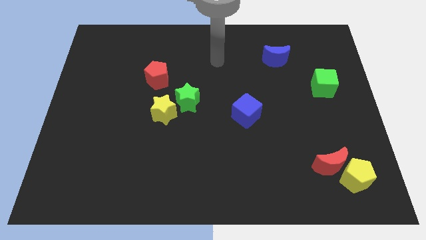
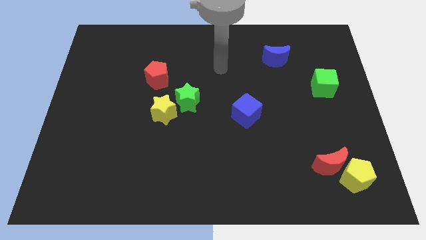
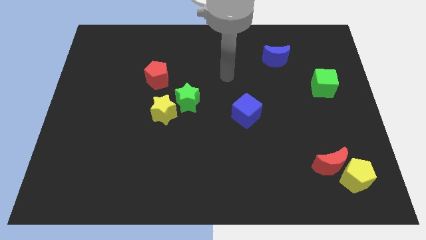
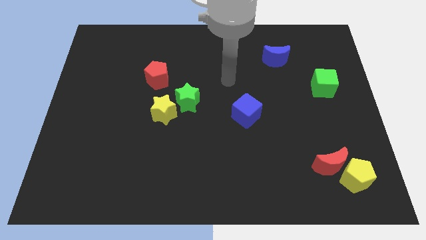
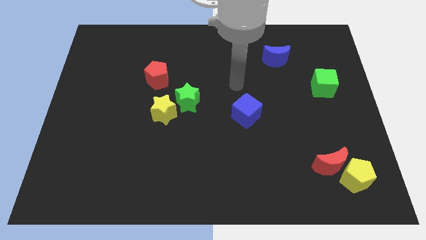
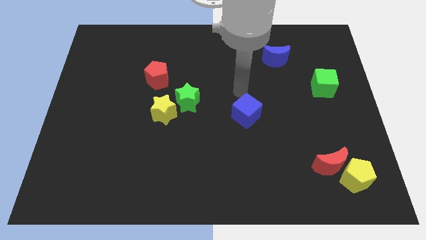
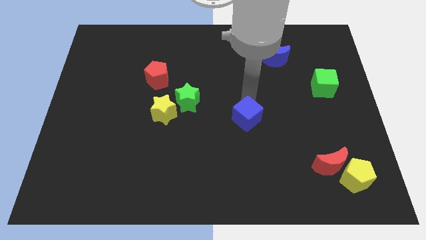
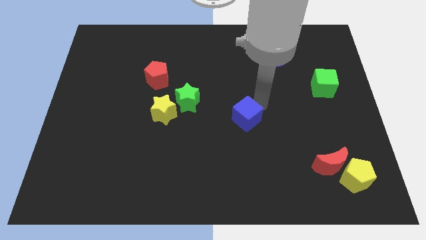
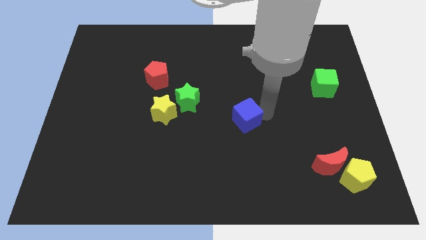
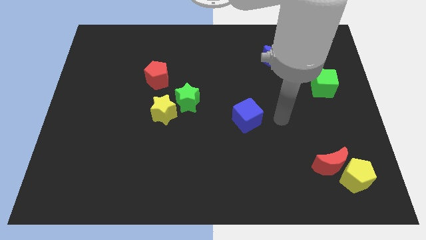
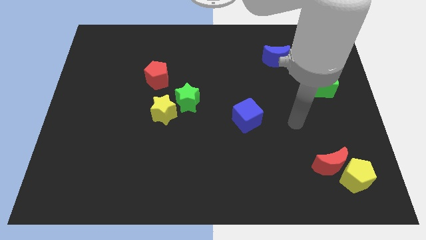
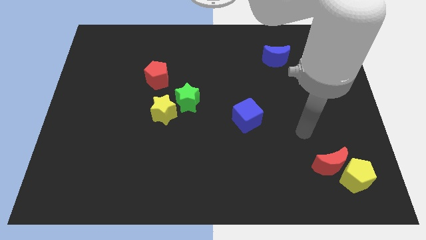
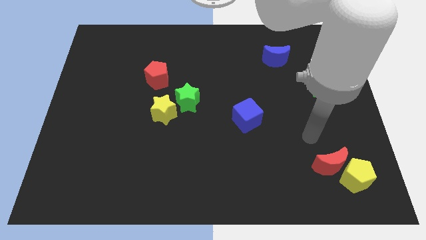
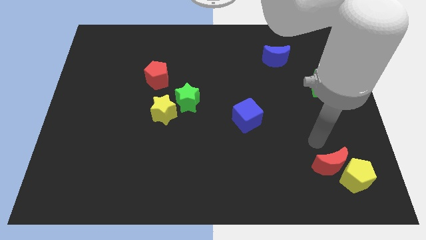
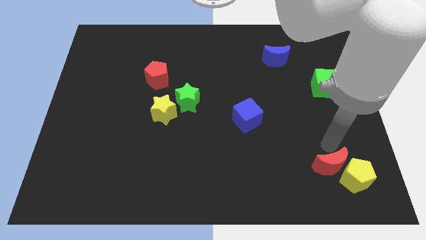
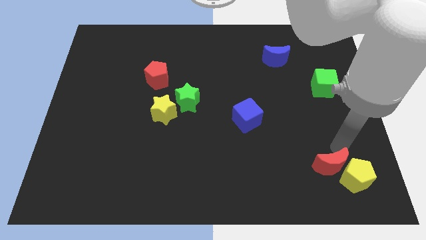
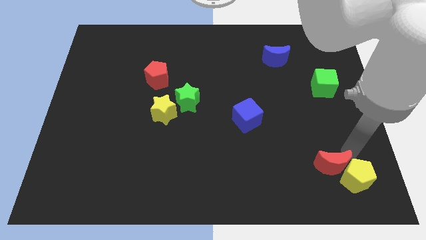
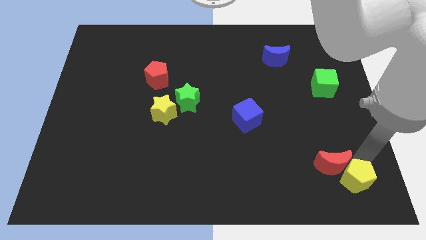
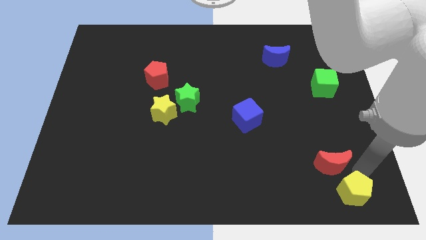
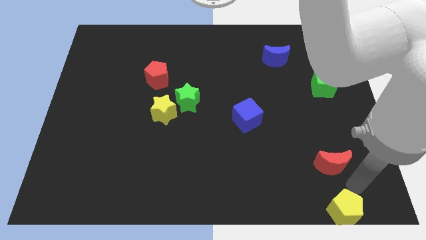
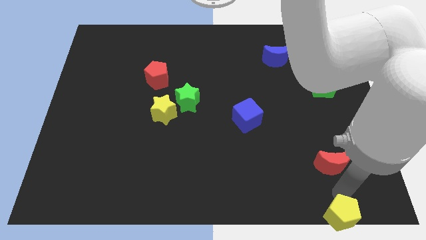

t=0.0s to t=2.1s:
move the red moon away from the yellow pentagon

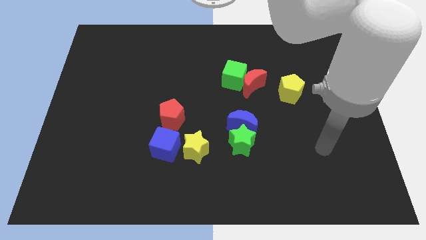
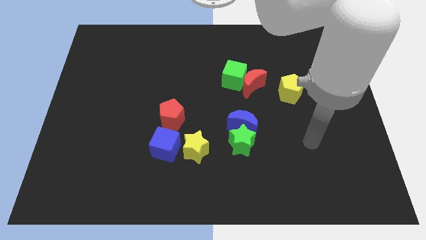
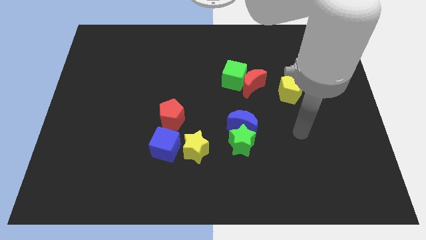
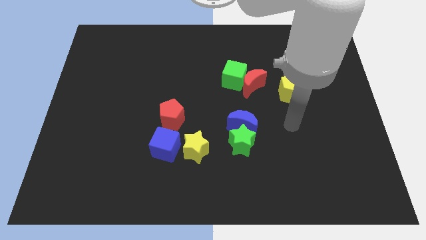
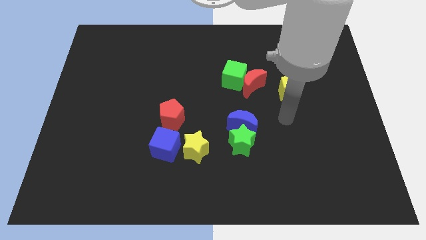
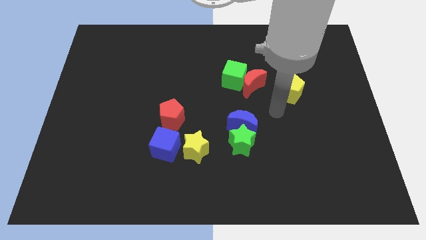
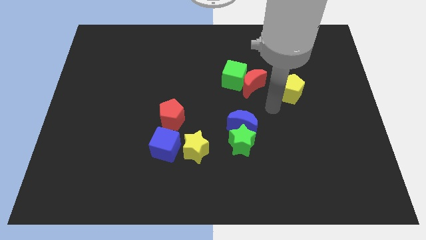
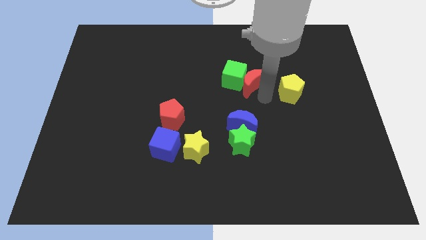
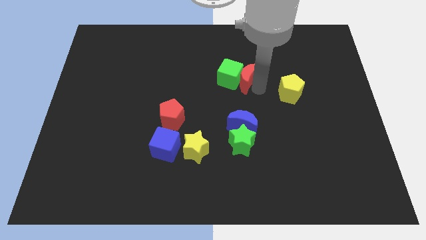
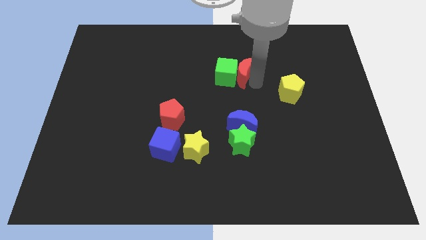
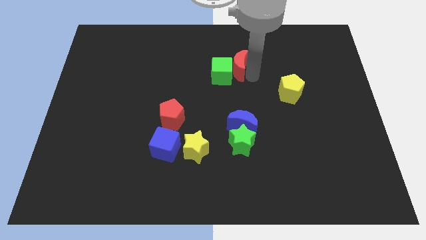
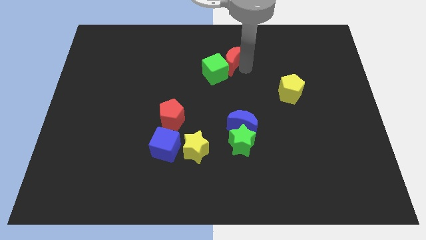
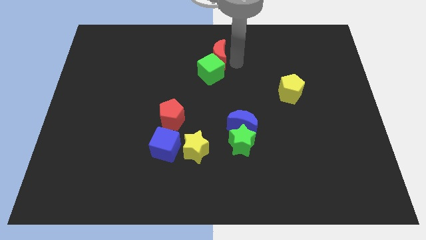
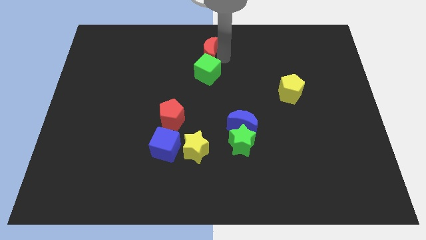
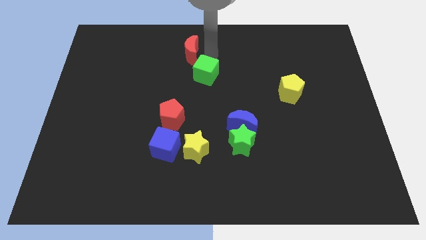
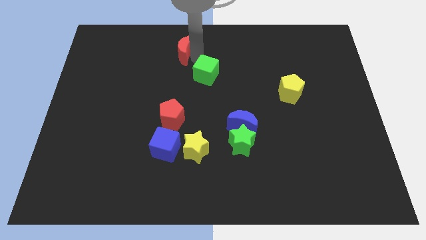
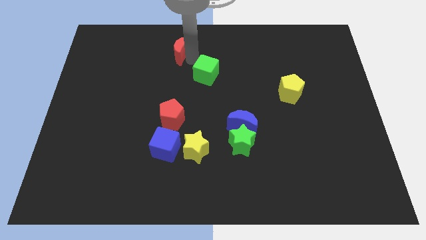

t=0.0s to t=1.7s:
pull the green cube apart from the red moon

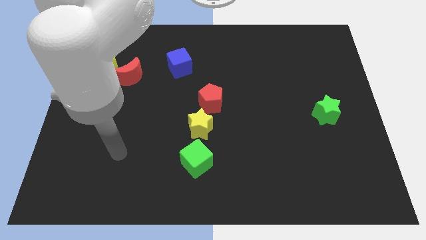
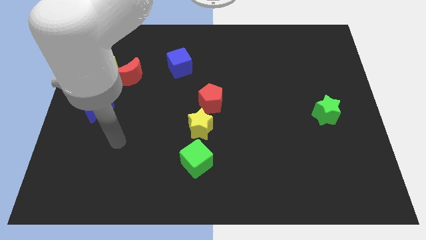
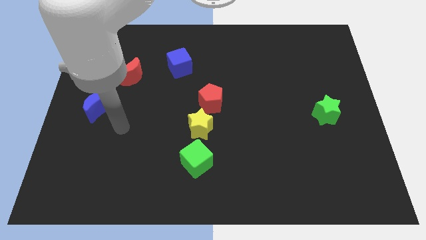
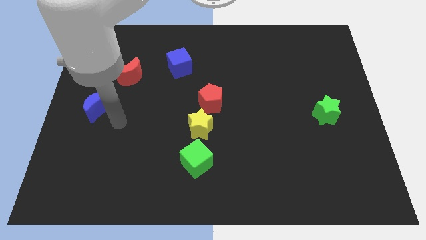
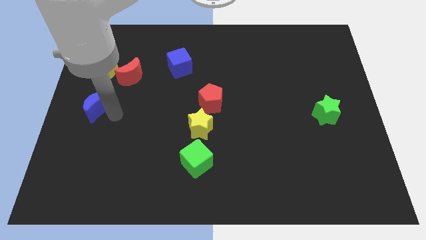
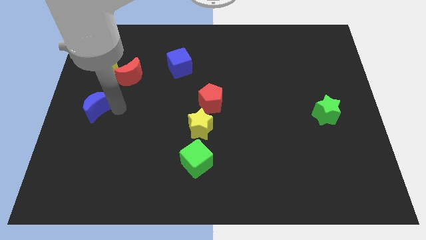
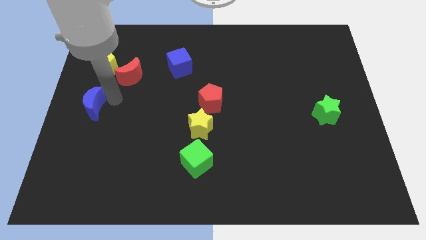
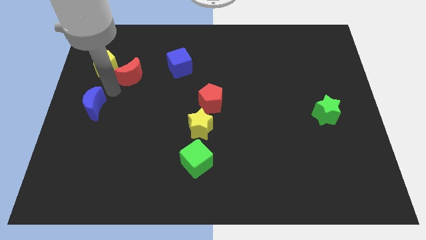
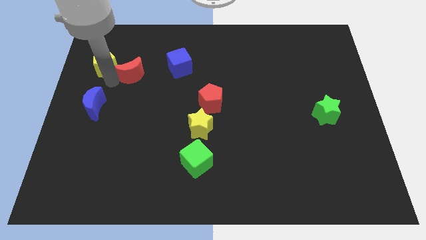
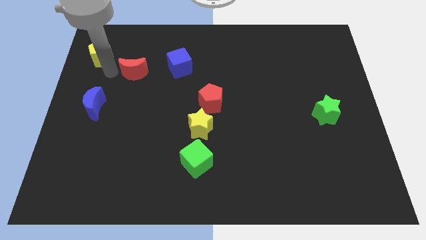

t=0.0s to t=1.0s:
pull the red moon apart from the yellow pentagon

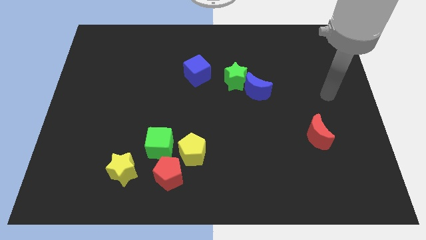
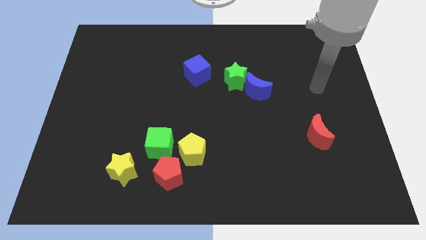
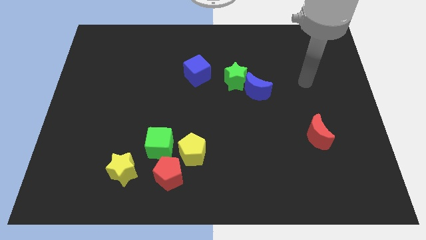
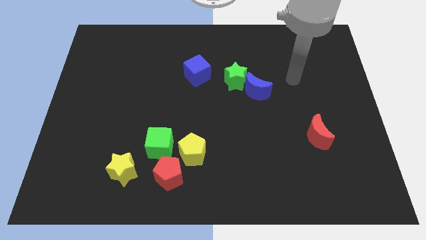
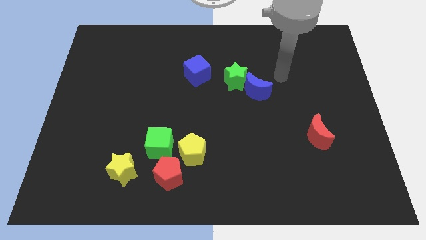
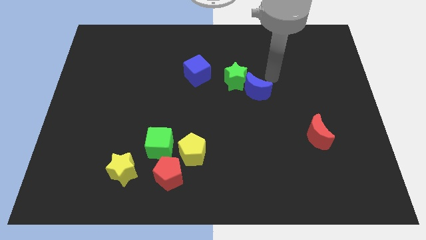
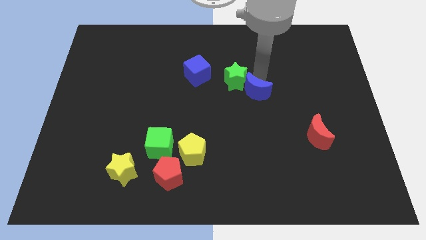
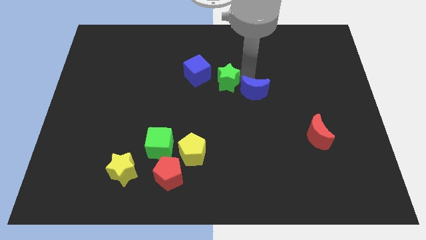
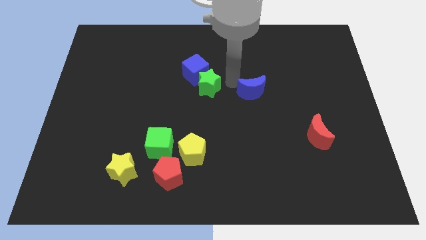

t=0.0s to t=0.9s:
separate the blue moon from the green star

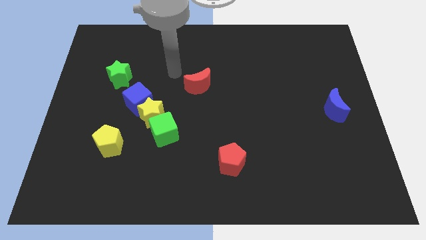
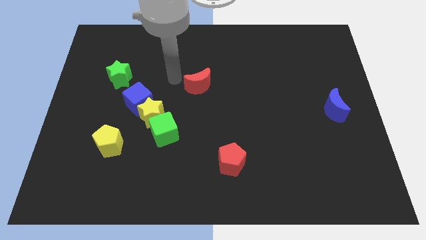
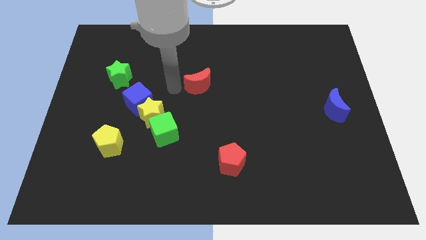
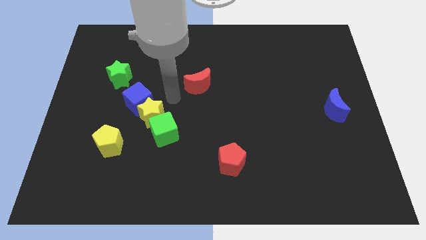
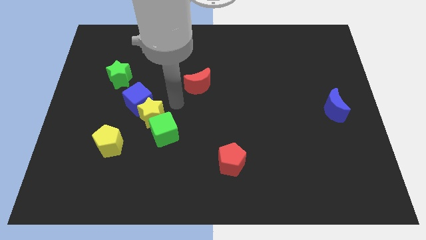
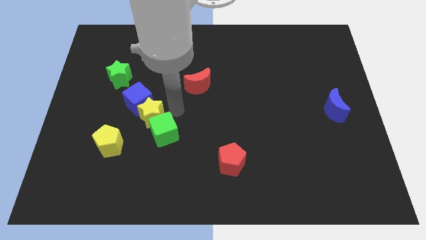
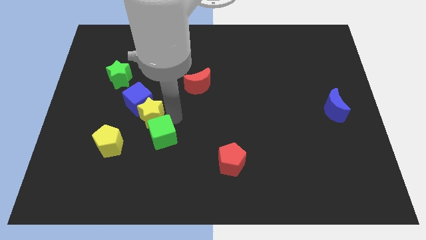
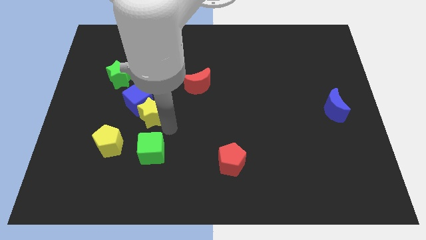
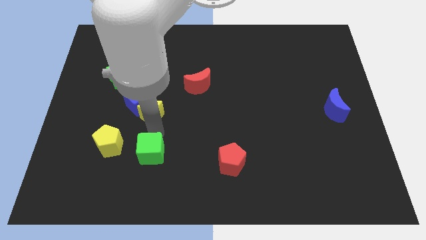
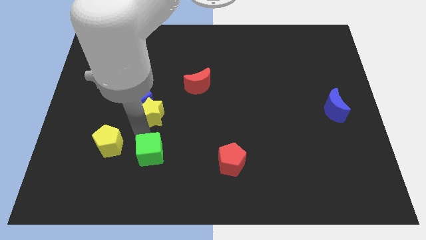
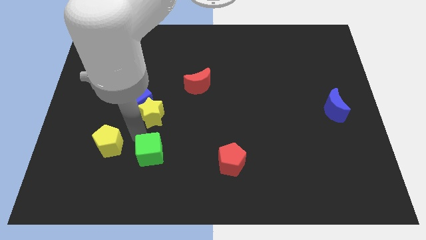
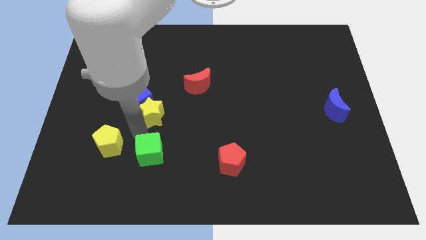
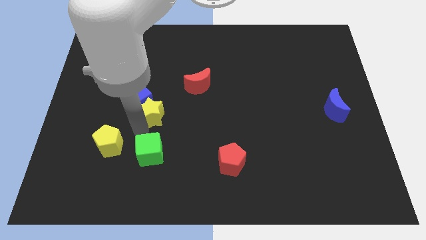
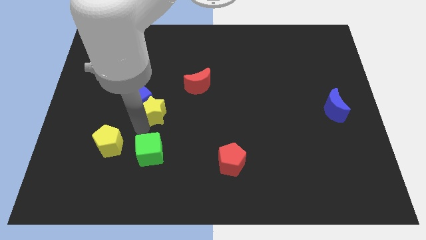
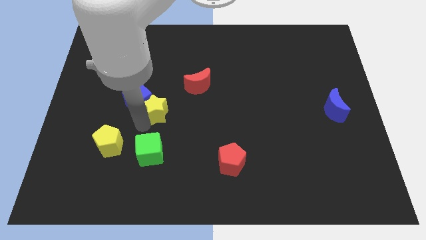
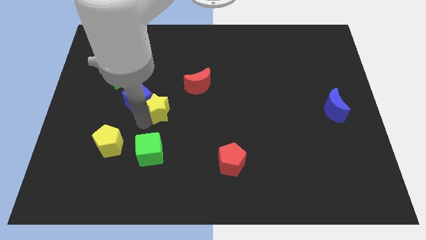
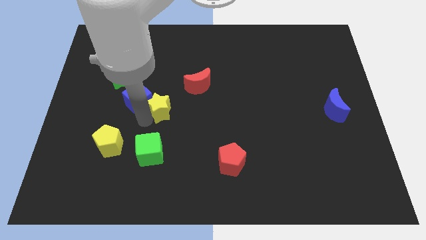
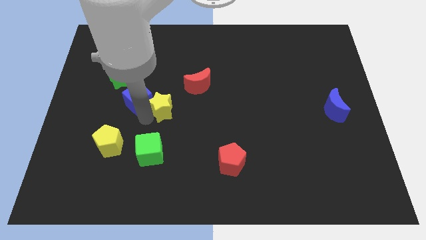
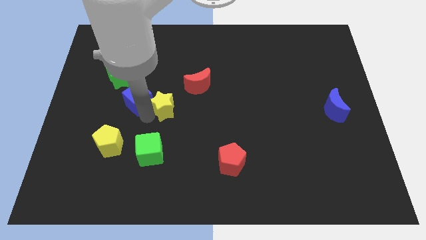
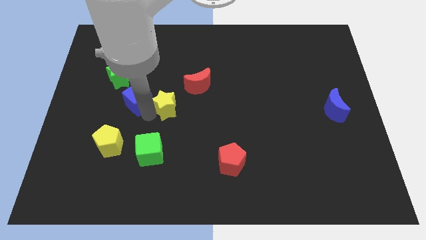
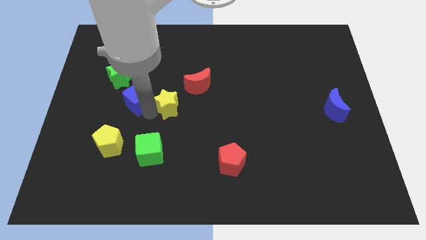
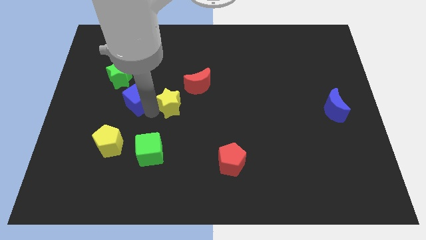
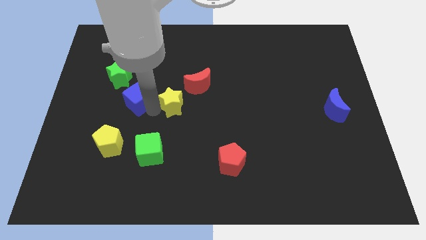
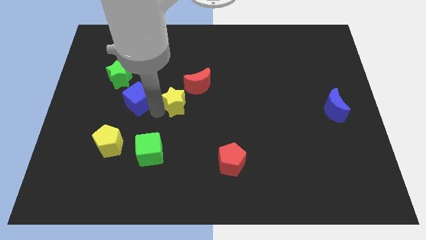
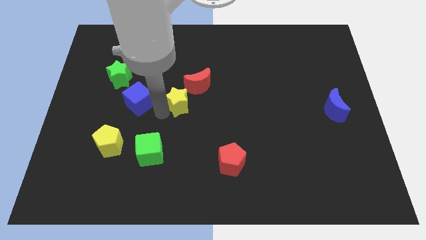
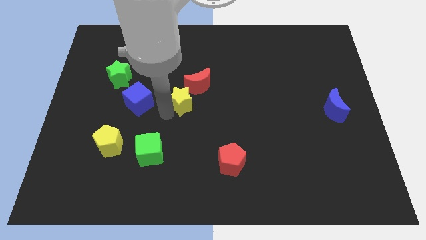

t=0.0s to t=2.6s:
move the yellow star away from the blue cube and green cube

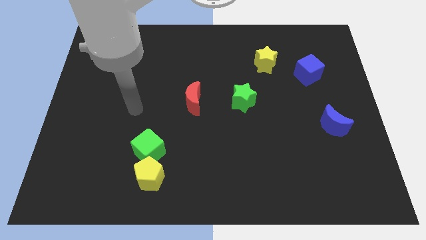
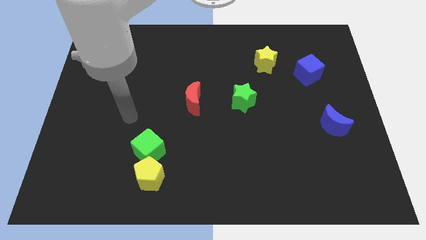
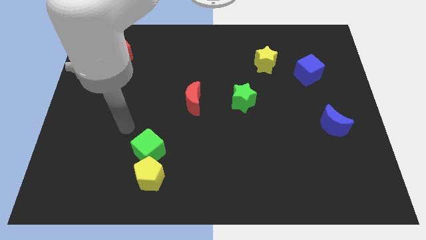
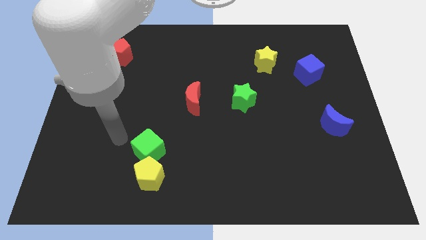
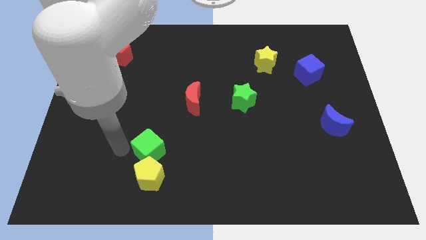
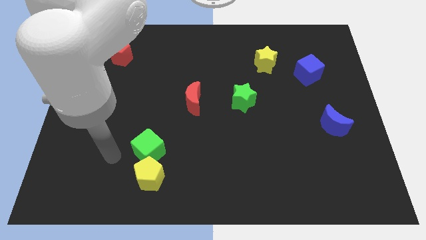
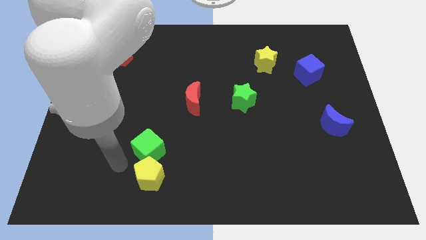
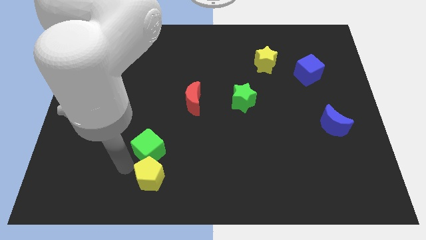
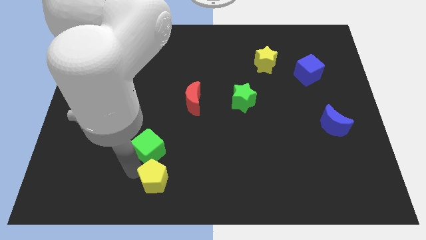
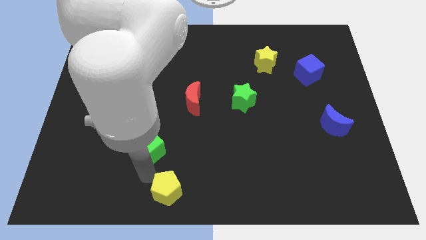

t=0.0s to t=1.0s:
move the green cube away from the yellow pentagon
